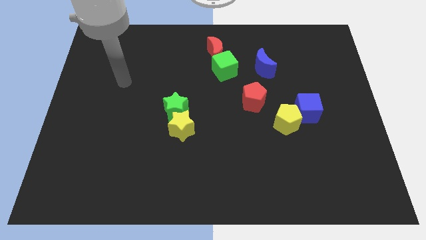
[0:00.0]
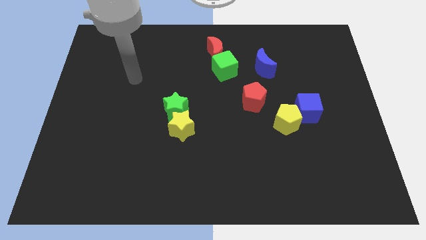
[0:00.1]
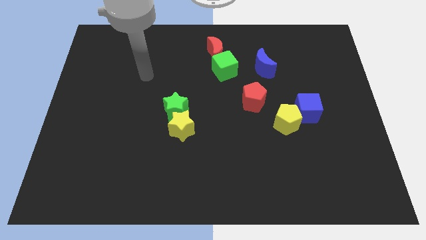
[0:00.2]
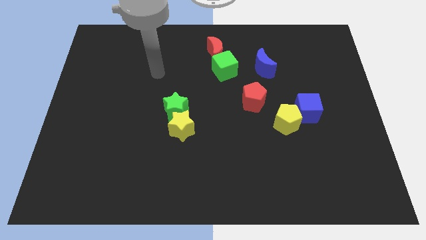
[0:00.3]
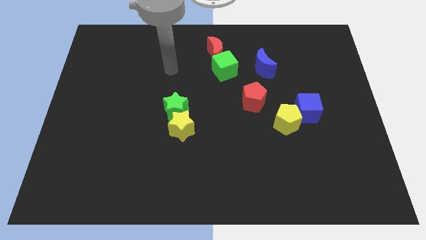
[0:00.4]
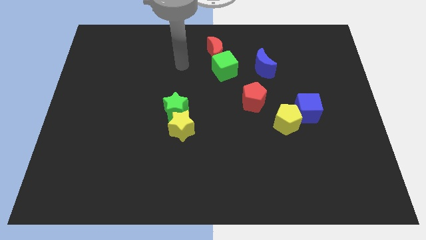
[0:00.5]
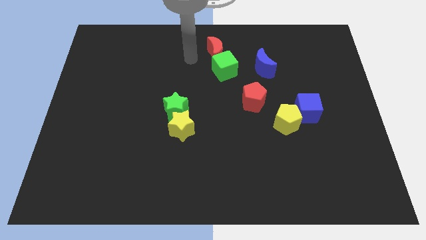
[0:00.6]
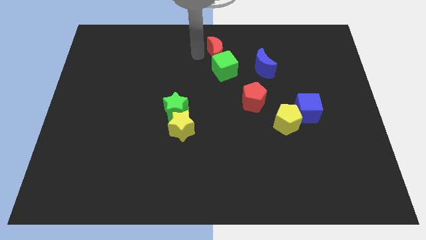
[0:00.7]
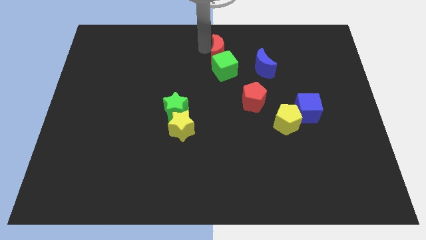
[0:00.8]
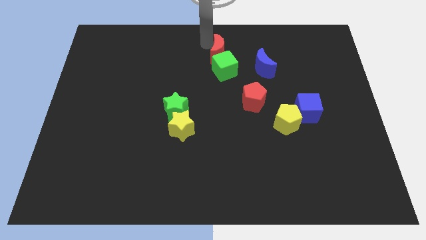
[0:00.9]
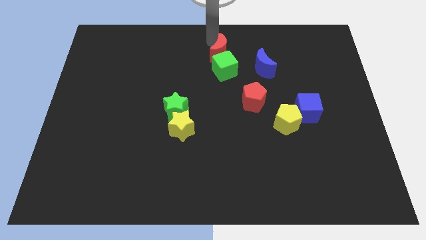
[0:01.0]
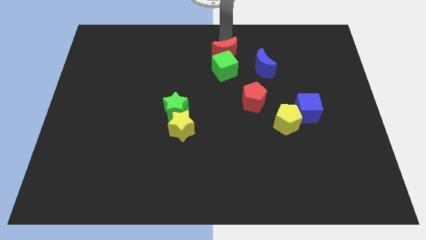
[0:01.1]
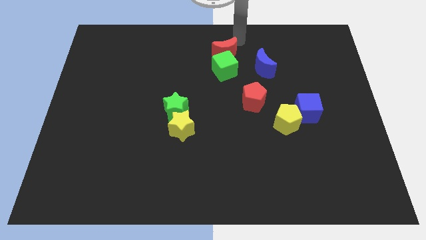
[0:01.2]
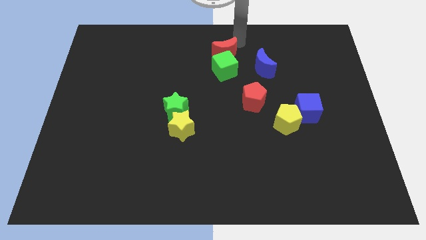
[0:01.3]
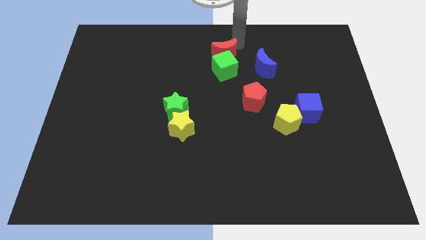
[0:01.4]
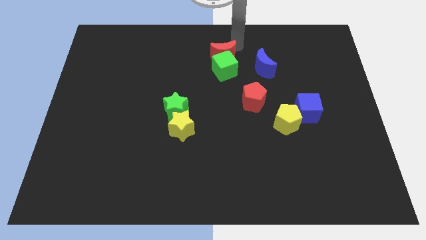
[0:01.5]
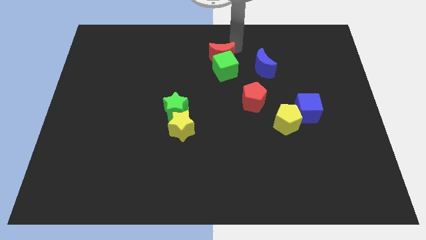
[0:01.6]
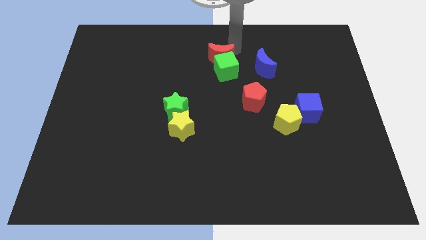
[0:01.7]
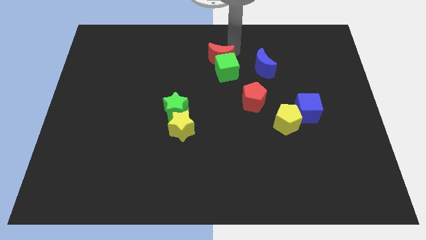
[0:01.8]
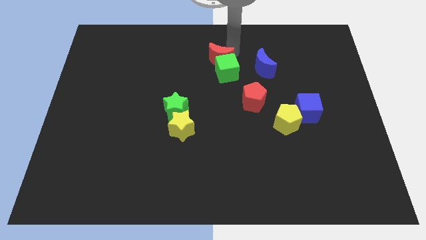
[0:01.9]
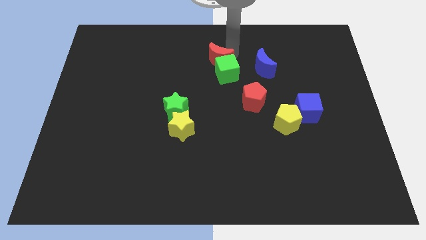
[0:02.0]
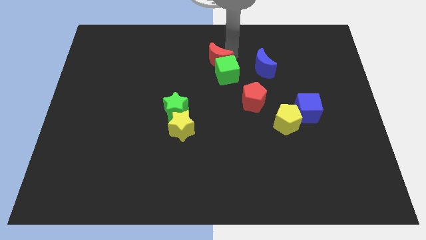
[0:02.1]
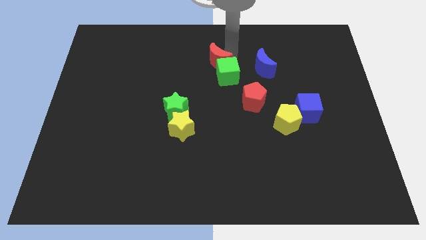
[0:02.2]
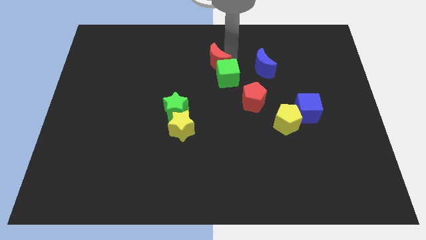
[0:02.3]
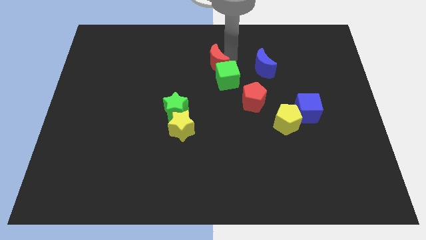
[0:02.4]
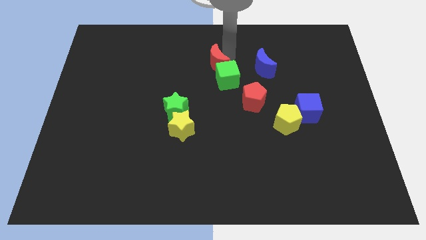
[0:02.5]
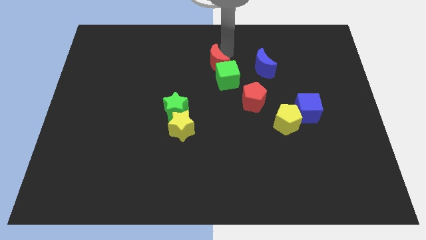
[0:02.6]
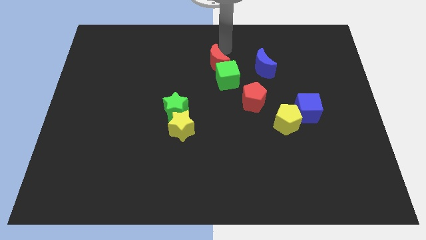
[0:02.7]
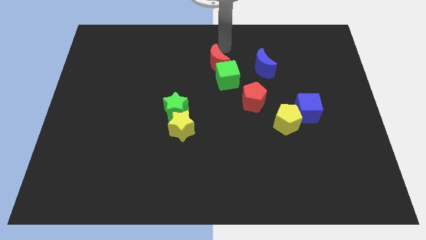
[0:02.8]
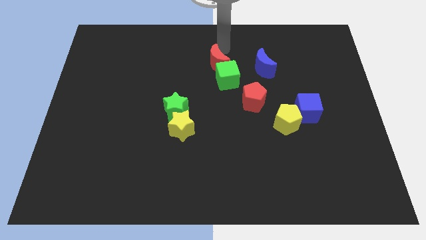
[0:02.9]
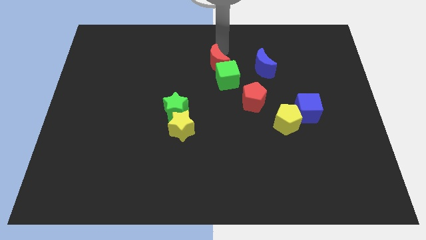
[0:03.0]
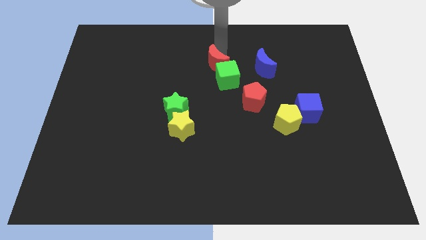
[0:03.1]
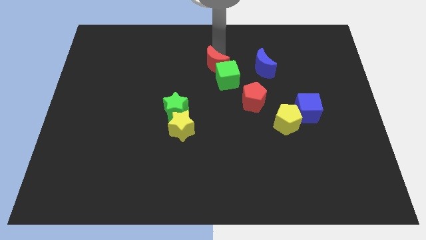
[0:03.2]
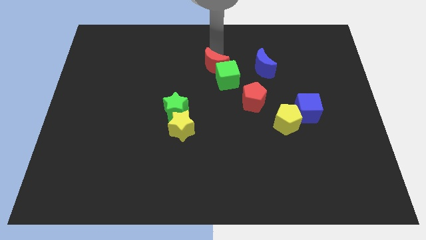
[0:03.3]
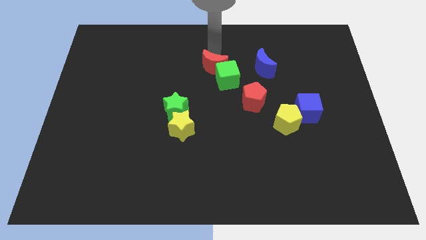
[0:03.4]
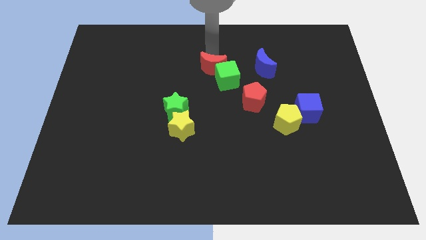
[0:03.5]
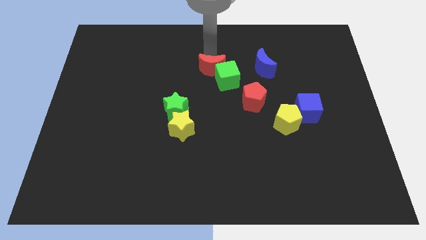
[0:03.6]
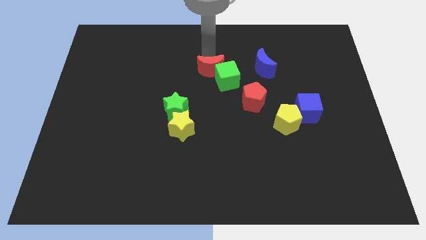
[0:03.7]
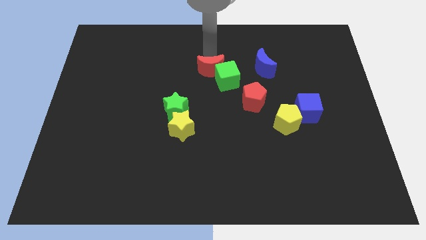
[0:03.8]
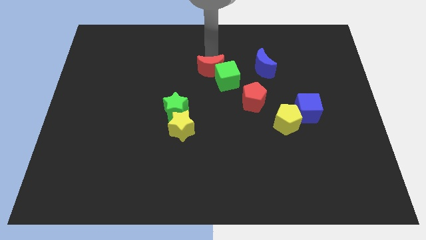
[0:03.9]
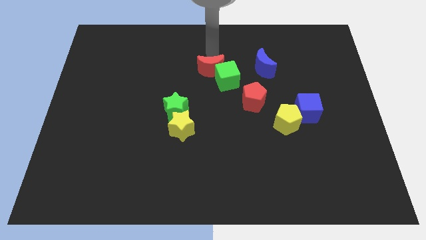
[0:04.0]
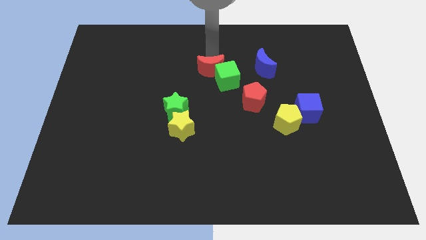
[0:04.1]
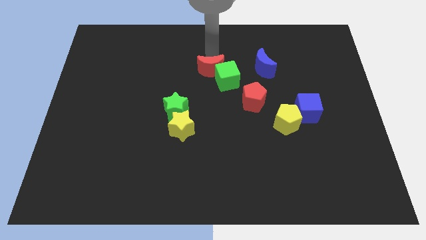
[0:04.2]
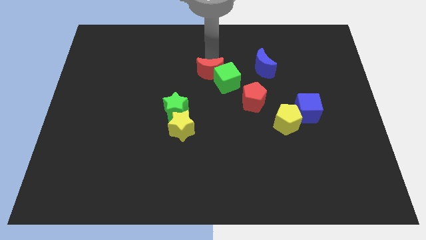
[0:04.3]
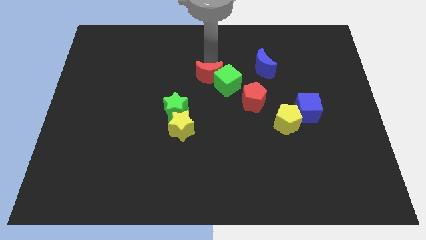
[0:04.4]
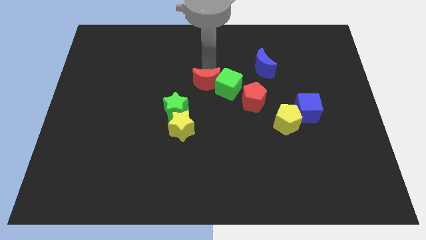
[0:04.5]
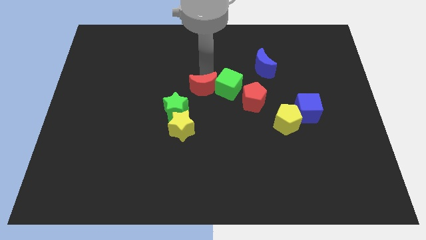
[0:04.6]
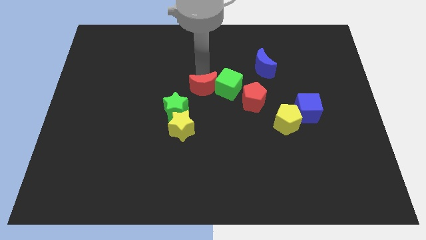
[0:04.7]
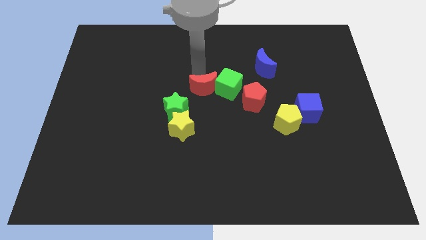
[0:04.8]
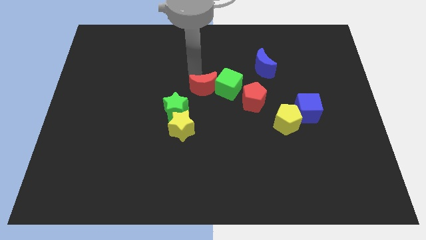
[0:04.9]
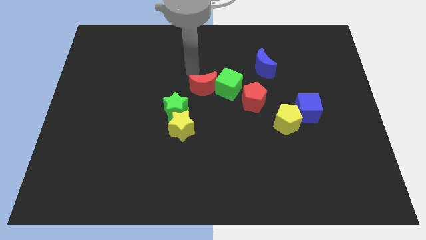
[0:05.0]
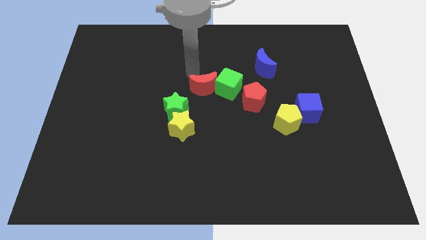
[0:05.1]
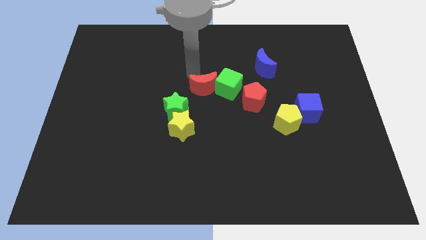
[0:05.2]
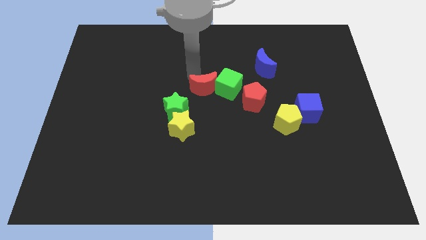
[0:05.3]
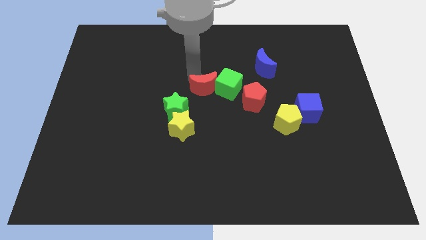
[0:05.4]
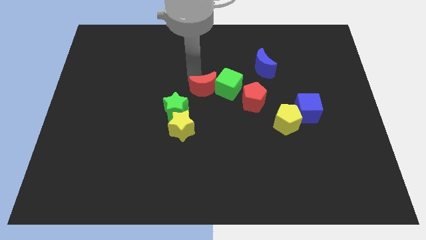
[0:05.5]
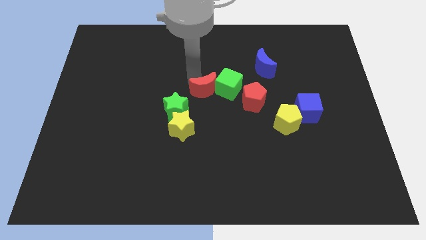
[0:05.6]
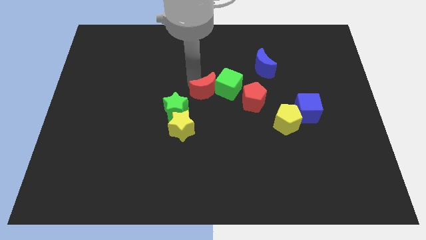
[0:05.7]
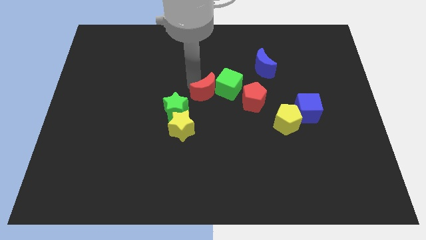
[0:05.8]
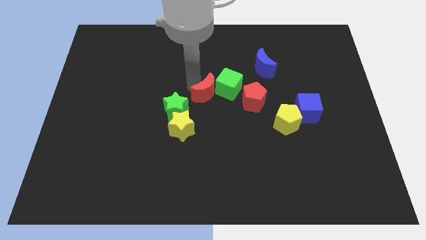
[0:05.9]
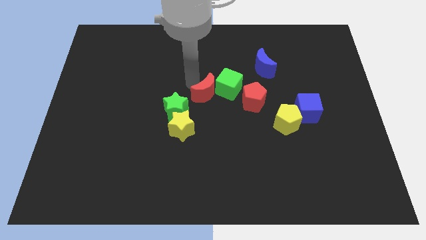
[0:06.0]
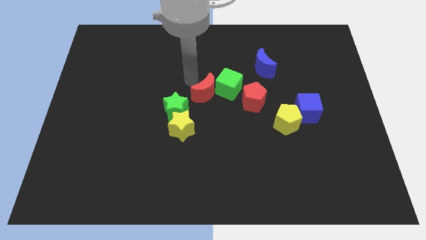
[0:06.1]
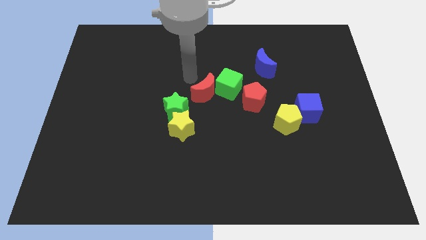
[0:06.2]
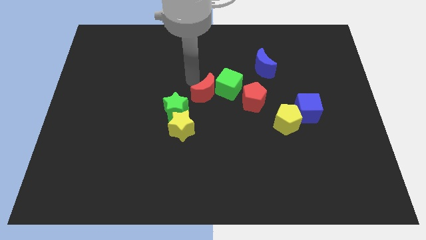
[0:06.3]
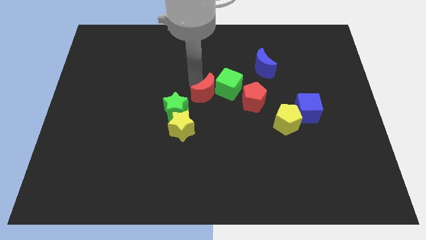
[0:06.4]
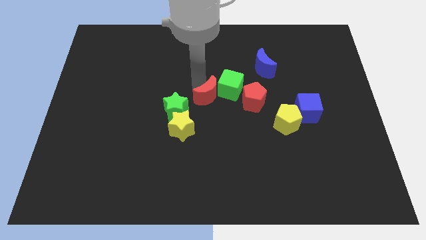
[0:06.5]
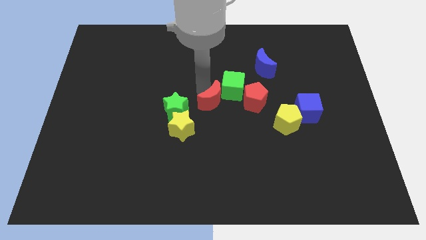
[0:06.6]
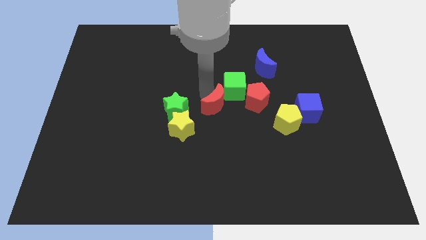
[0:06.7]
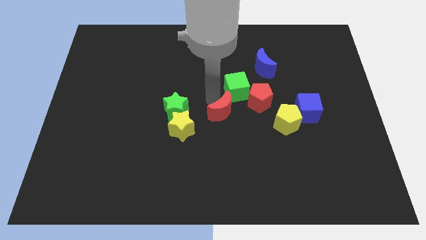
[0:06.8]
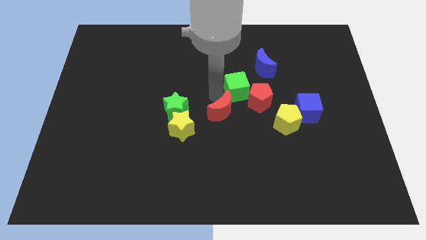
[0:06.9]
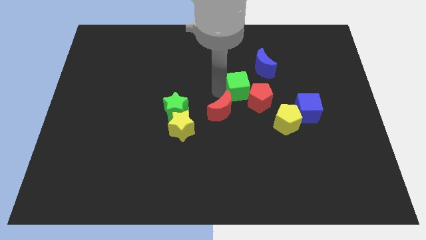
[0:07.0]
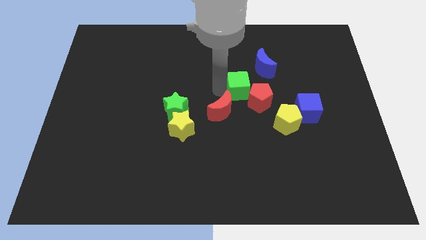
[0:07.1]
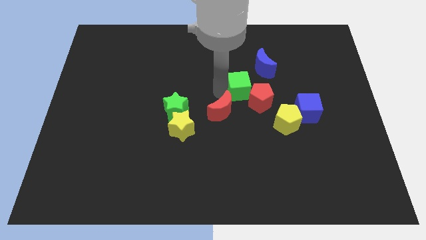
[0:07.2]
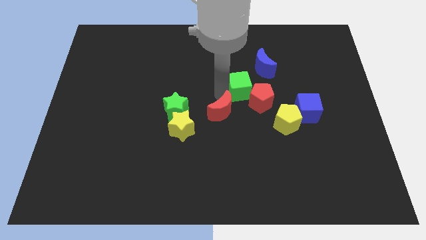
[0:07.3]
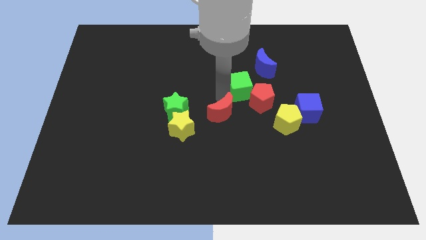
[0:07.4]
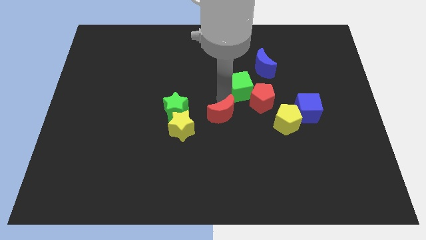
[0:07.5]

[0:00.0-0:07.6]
push the red moon down

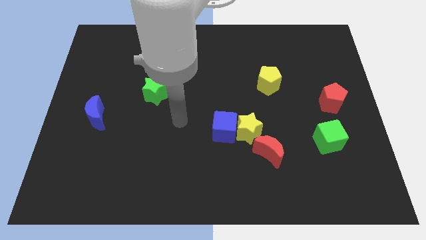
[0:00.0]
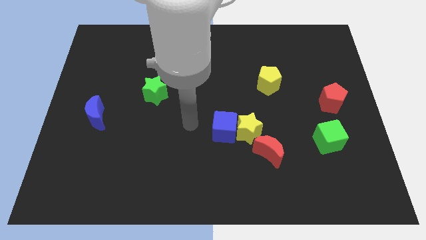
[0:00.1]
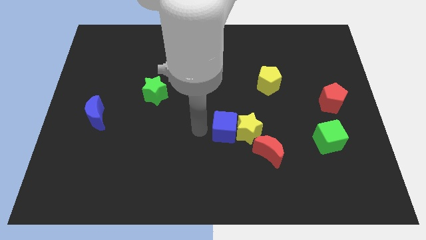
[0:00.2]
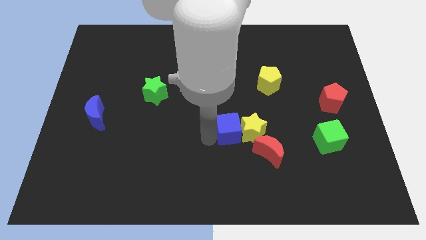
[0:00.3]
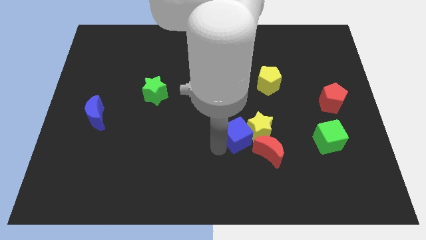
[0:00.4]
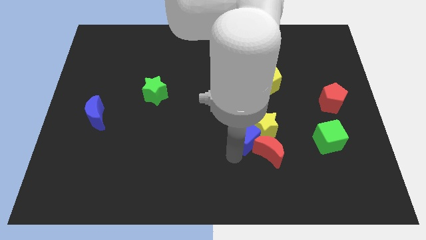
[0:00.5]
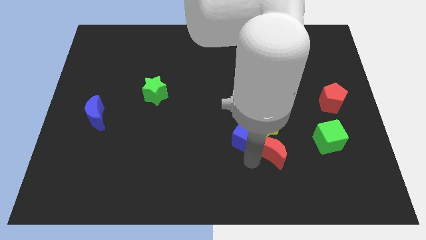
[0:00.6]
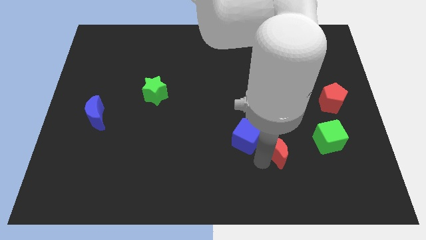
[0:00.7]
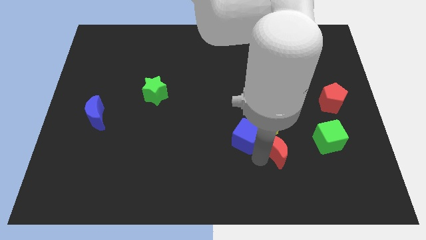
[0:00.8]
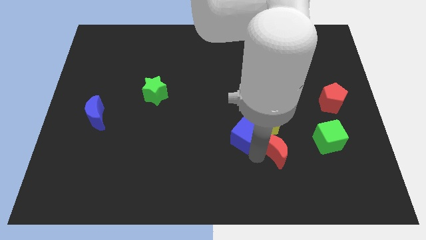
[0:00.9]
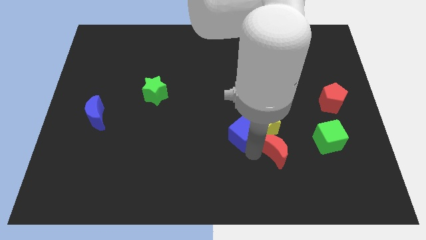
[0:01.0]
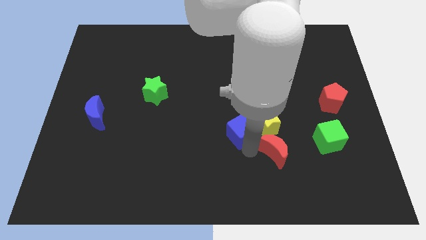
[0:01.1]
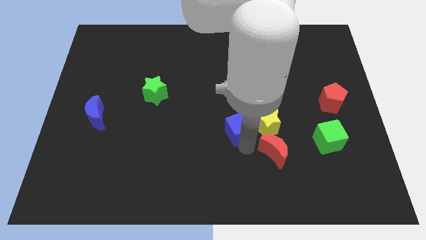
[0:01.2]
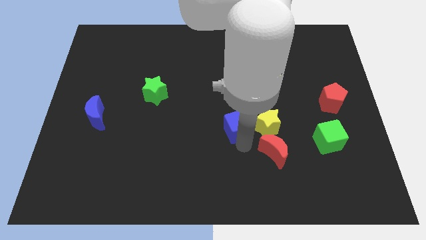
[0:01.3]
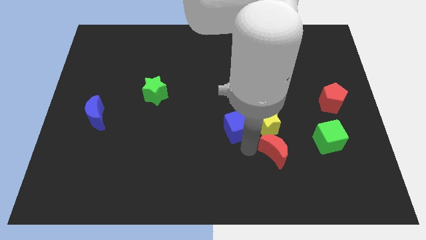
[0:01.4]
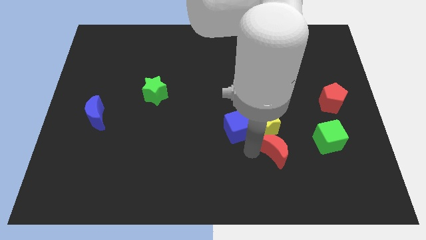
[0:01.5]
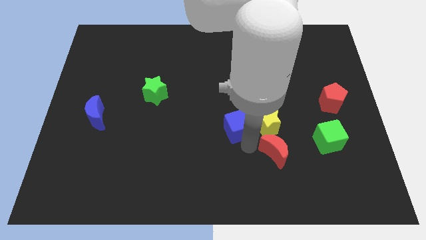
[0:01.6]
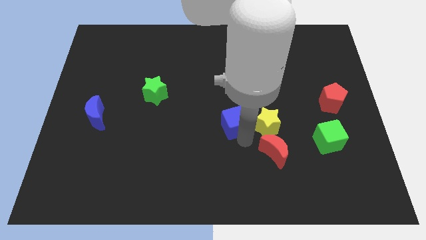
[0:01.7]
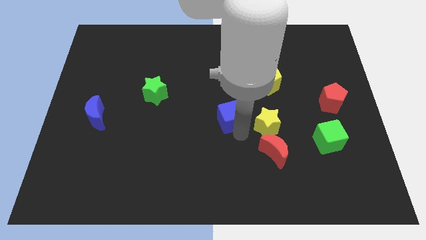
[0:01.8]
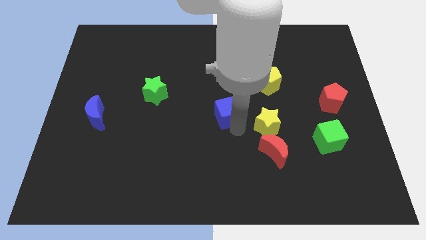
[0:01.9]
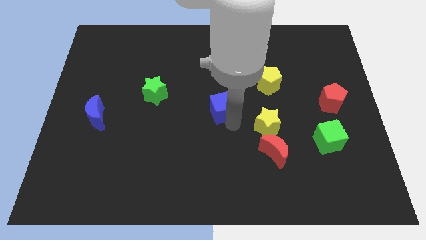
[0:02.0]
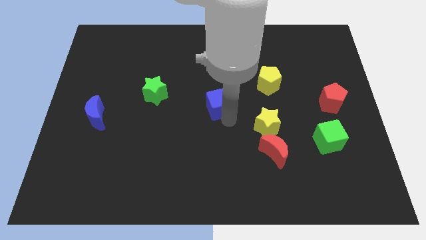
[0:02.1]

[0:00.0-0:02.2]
slide the blue cube upwards a bit
